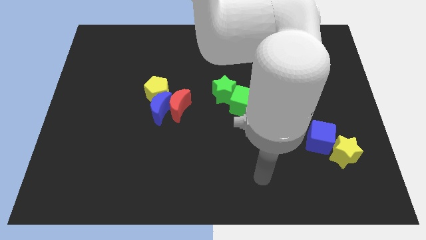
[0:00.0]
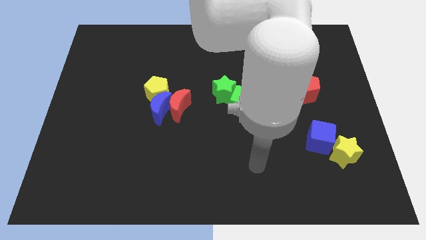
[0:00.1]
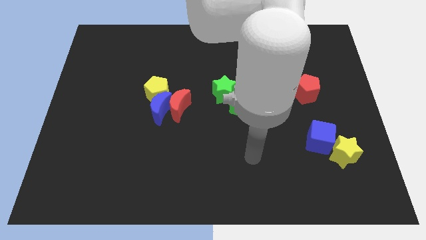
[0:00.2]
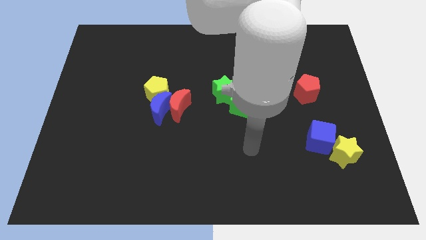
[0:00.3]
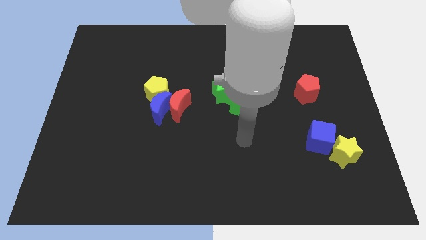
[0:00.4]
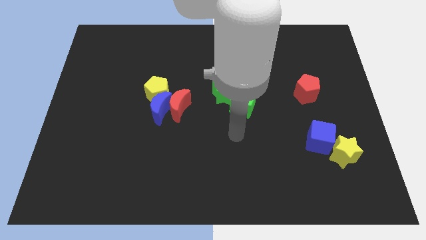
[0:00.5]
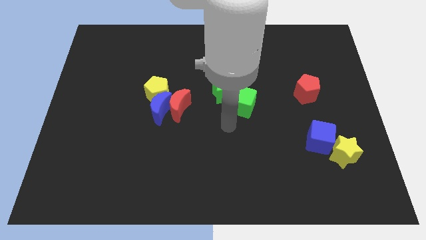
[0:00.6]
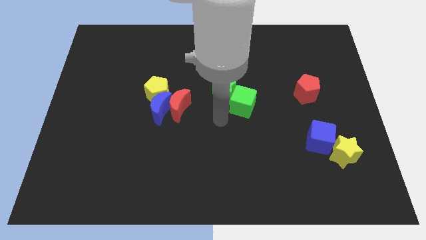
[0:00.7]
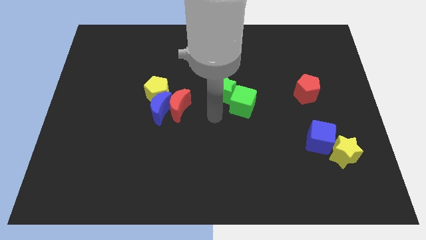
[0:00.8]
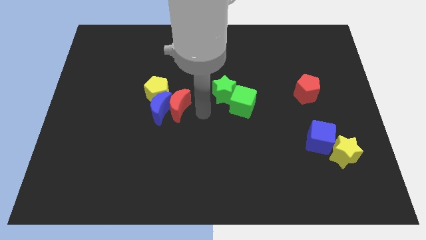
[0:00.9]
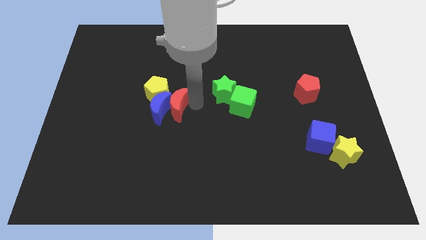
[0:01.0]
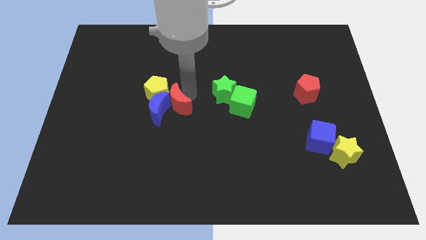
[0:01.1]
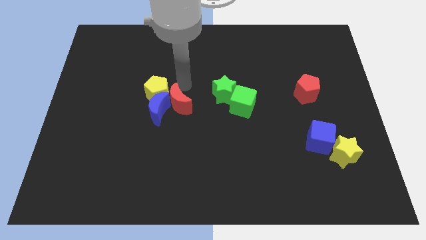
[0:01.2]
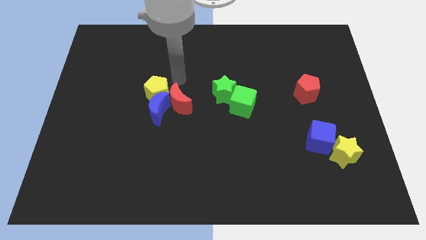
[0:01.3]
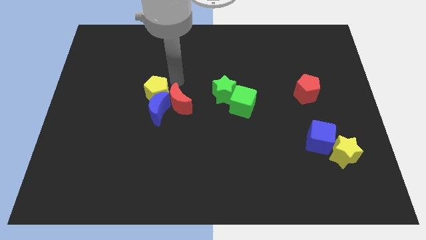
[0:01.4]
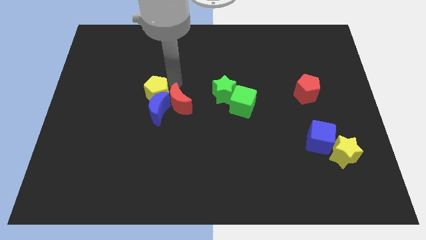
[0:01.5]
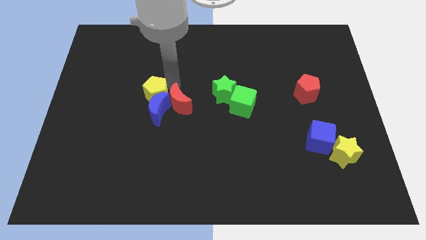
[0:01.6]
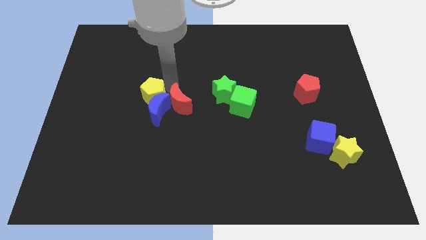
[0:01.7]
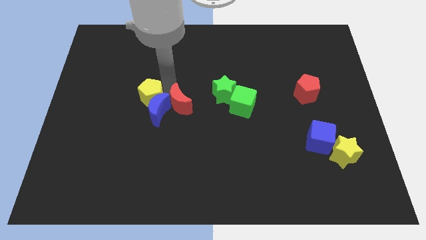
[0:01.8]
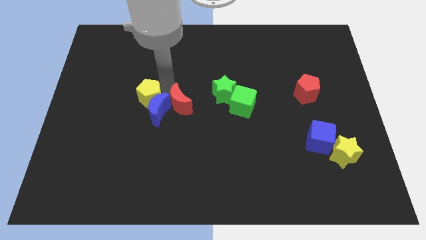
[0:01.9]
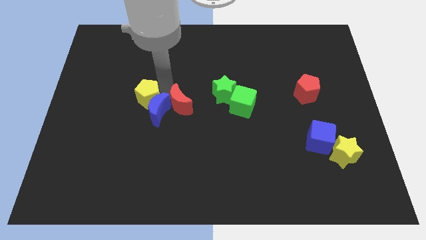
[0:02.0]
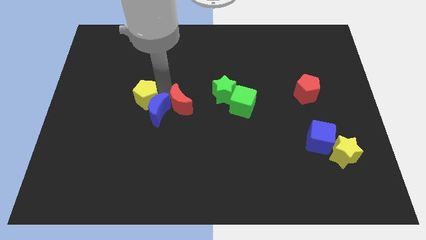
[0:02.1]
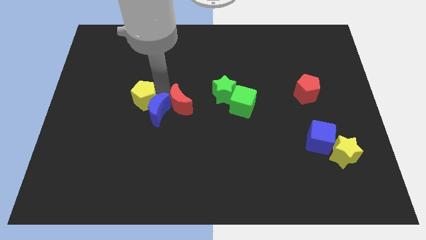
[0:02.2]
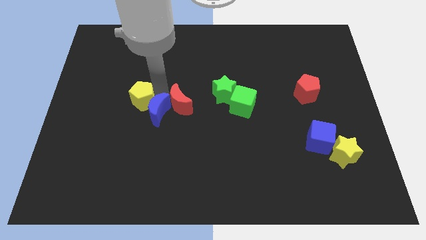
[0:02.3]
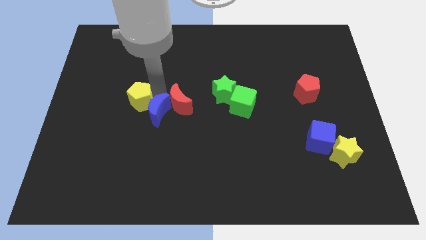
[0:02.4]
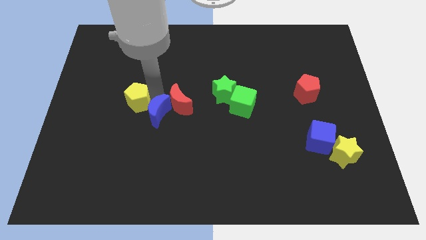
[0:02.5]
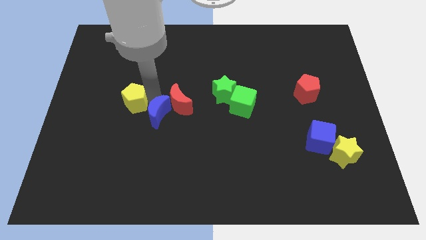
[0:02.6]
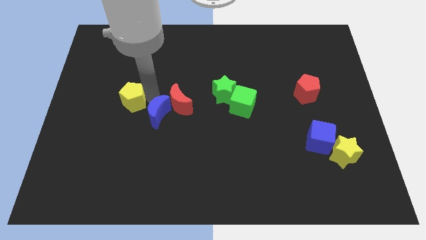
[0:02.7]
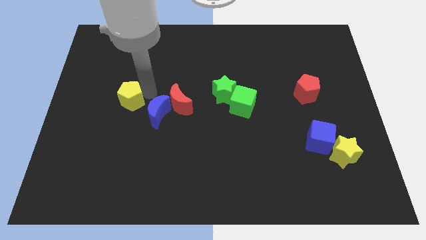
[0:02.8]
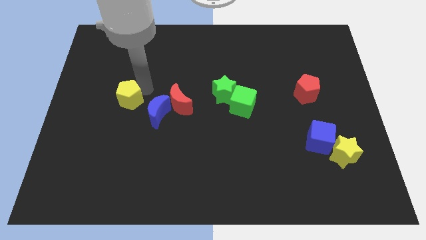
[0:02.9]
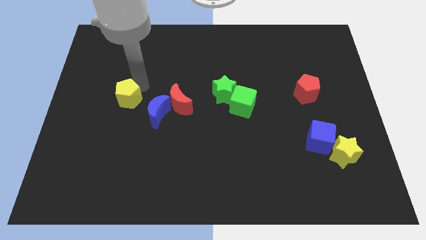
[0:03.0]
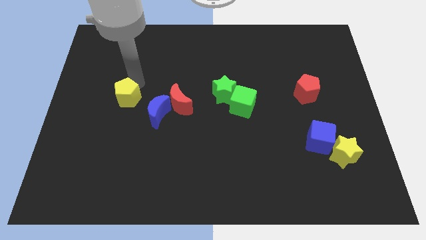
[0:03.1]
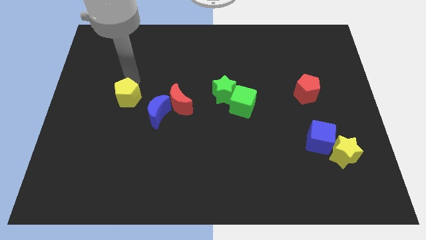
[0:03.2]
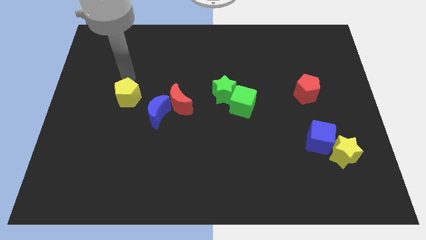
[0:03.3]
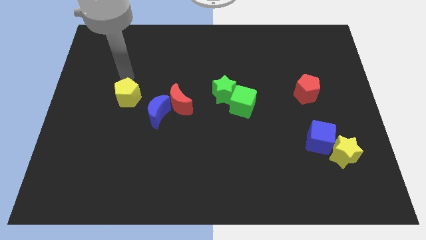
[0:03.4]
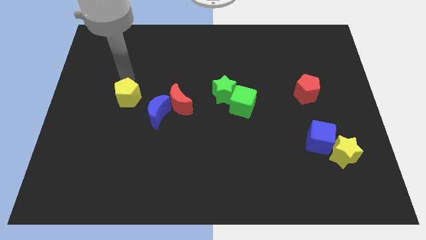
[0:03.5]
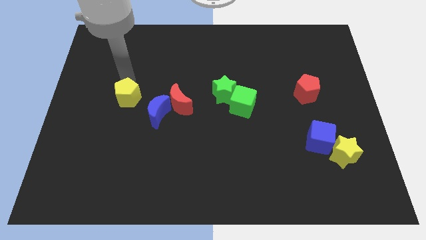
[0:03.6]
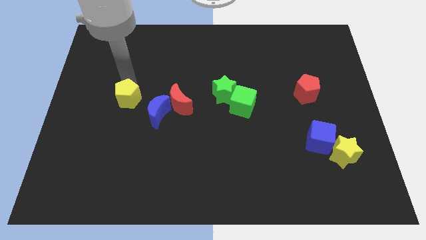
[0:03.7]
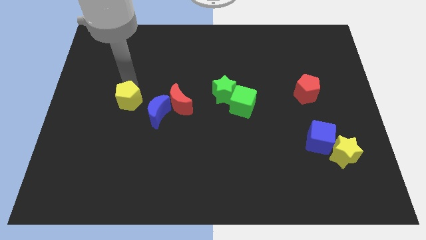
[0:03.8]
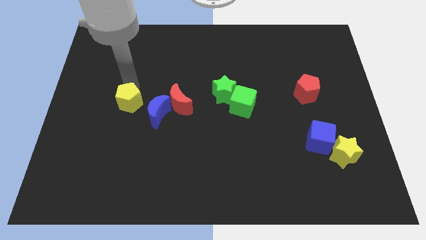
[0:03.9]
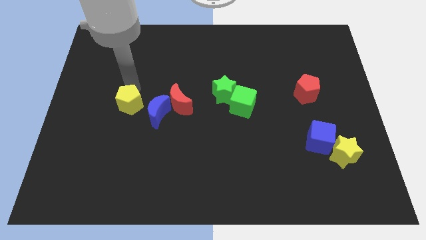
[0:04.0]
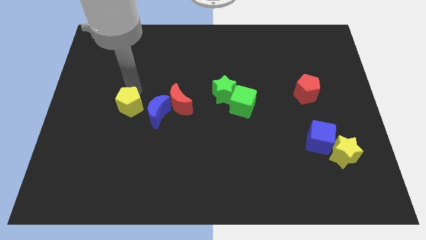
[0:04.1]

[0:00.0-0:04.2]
push the yellow pentagon down and left diagonally a little

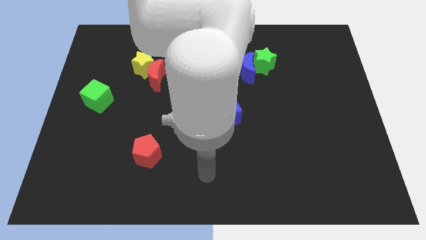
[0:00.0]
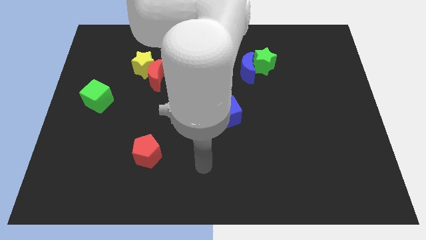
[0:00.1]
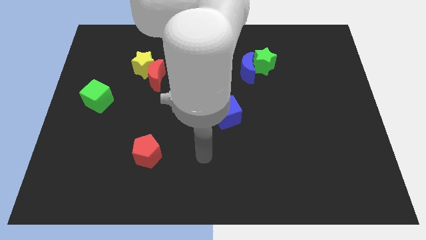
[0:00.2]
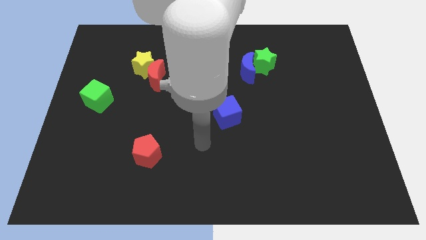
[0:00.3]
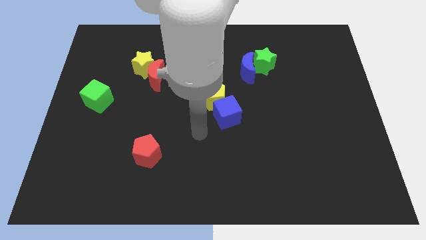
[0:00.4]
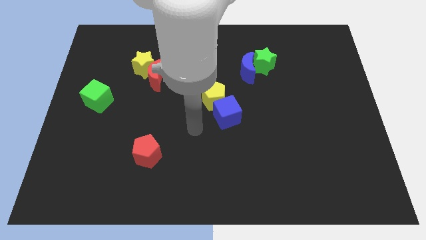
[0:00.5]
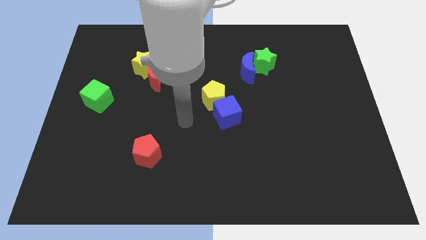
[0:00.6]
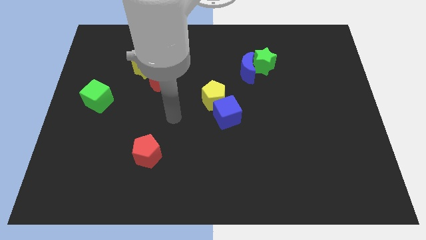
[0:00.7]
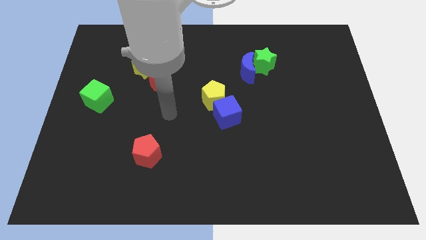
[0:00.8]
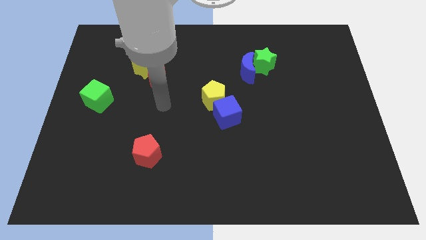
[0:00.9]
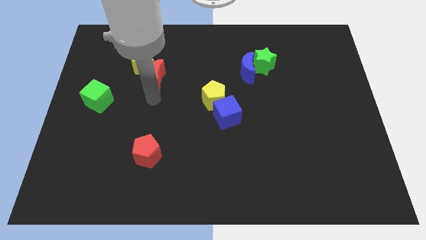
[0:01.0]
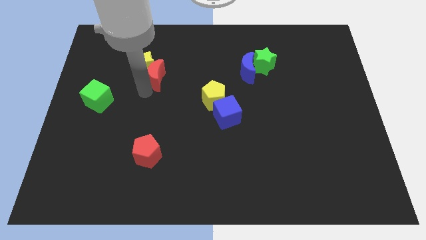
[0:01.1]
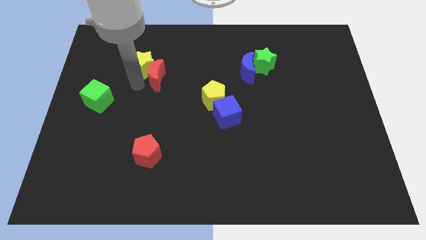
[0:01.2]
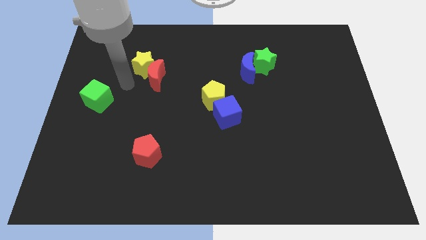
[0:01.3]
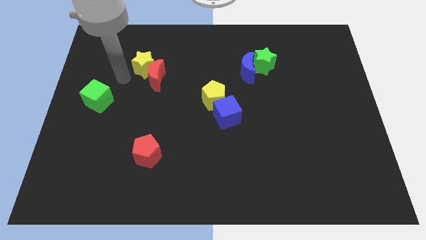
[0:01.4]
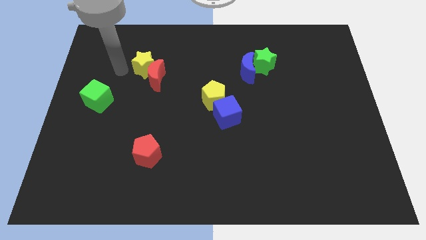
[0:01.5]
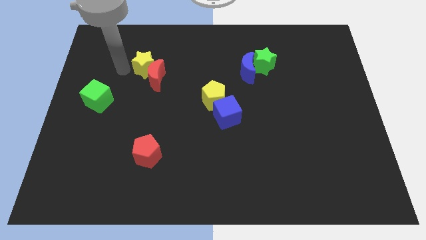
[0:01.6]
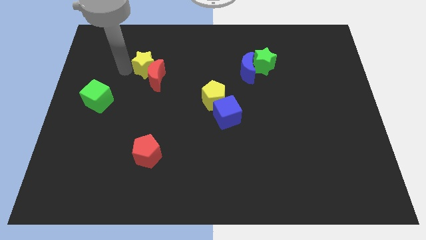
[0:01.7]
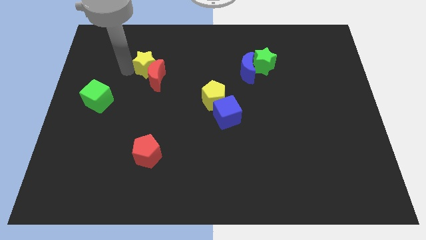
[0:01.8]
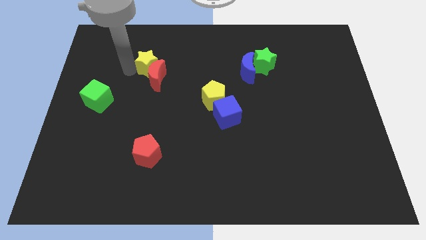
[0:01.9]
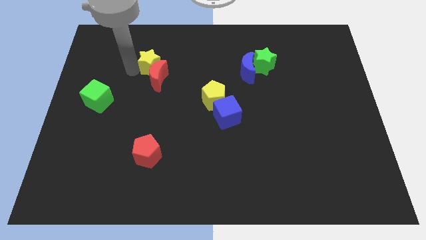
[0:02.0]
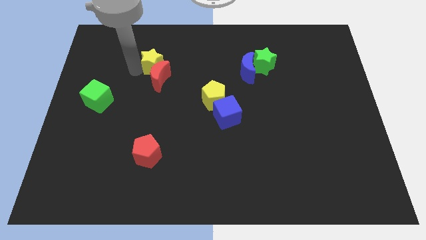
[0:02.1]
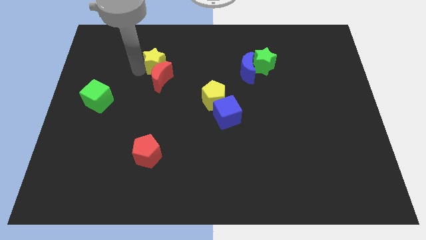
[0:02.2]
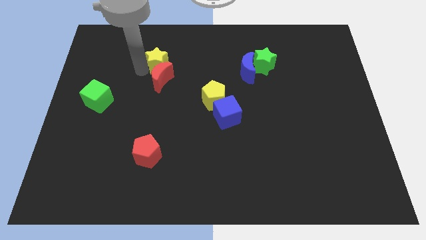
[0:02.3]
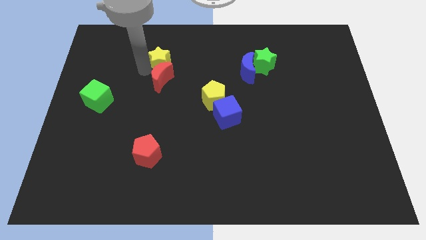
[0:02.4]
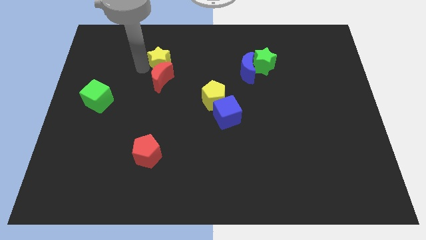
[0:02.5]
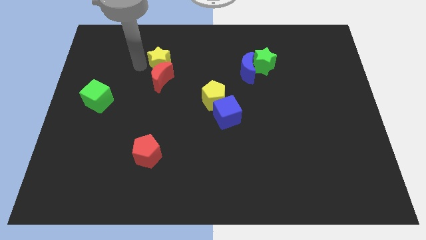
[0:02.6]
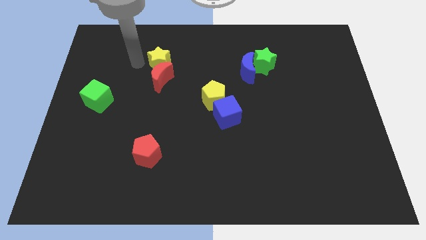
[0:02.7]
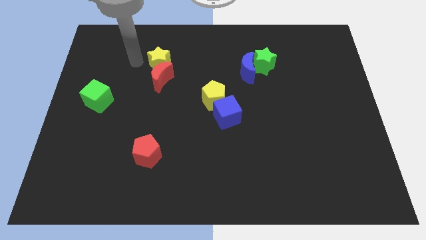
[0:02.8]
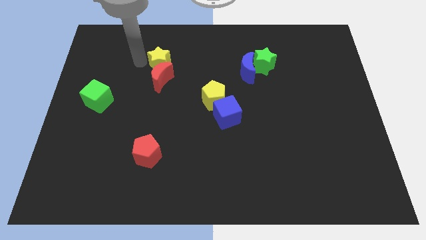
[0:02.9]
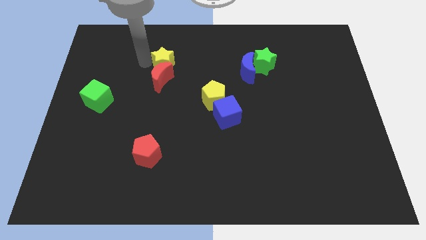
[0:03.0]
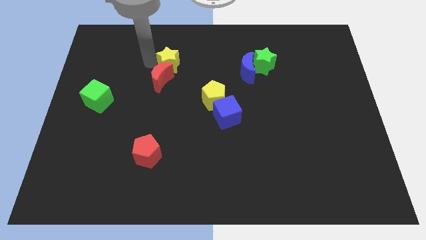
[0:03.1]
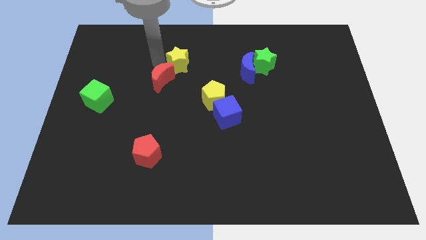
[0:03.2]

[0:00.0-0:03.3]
slightly push the yellow star to the right

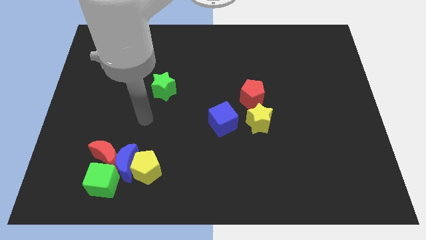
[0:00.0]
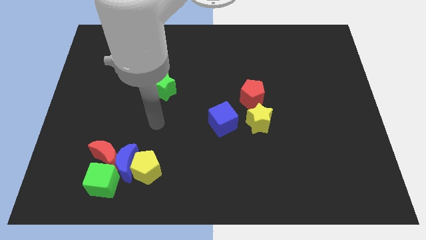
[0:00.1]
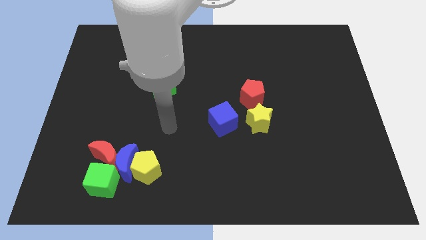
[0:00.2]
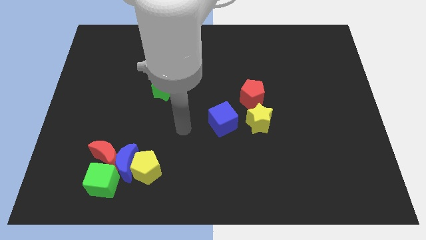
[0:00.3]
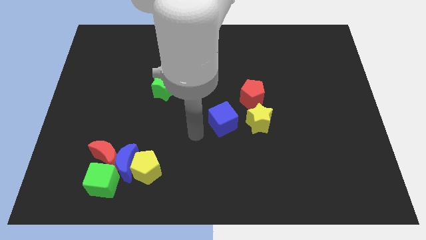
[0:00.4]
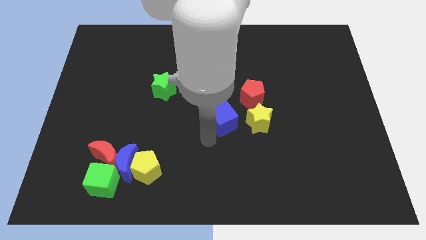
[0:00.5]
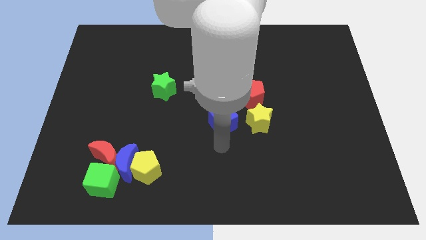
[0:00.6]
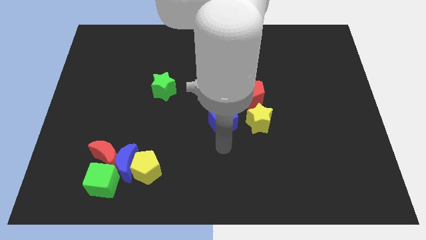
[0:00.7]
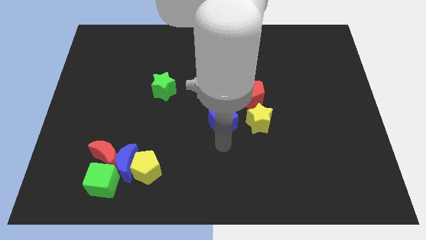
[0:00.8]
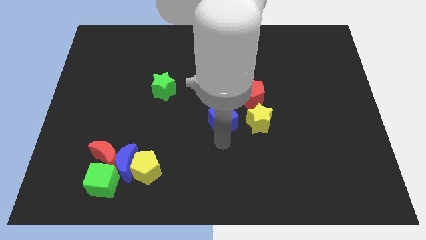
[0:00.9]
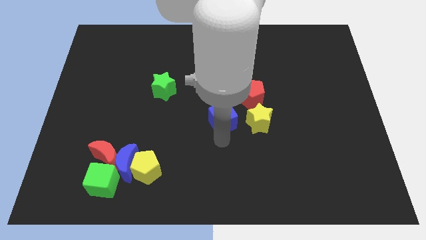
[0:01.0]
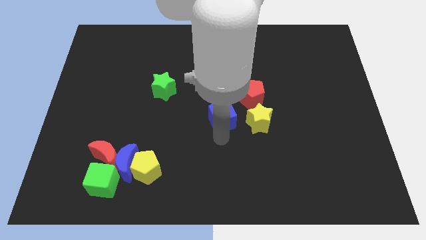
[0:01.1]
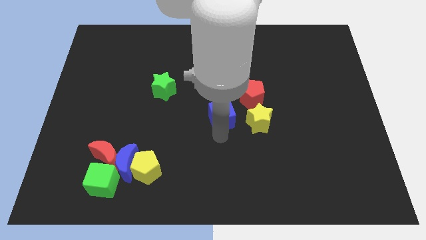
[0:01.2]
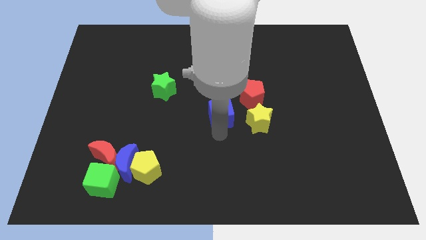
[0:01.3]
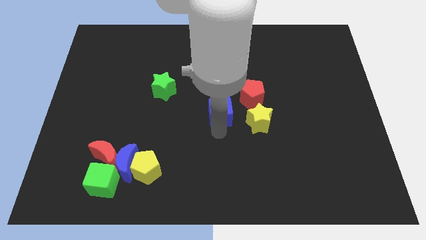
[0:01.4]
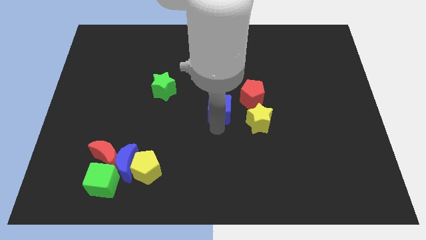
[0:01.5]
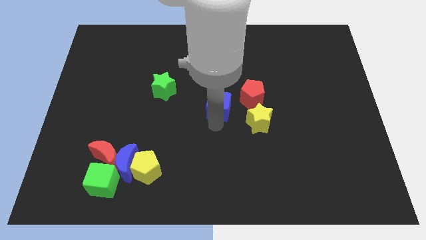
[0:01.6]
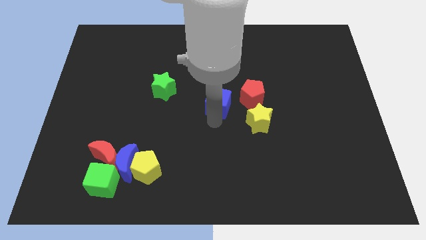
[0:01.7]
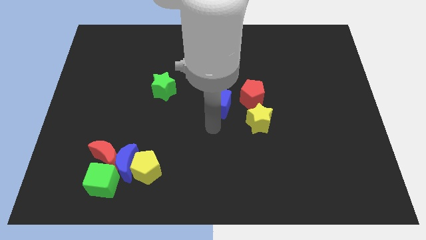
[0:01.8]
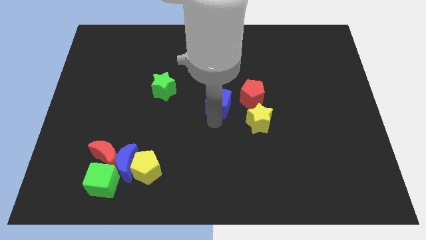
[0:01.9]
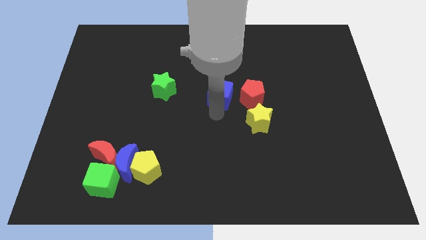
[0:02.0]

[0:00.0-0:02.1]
slightly move the blue cube upwards
